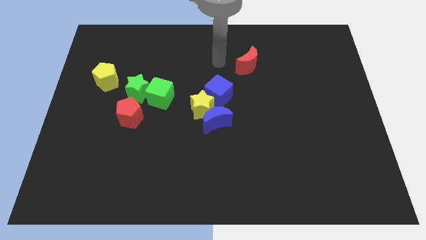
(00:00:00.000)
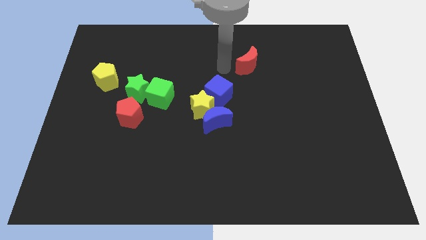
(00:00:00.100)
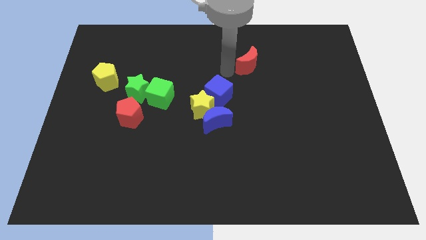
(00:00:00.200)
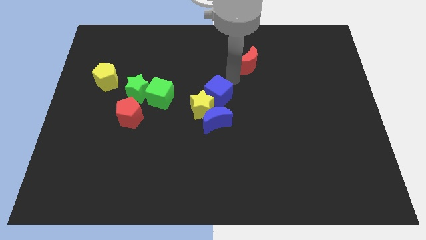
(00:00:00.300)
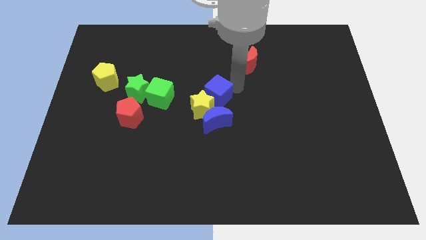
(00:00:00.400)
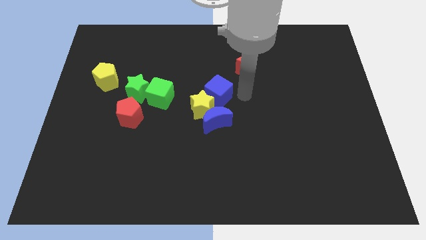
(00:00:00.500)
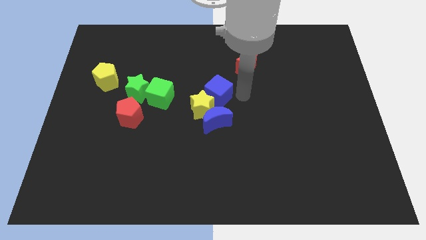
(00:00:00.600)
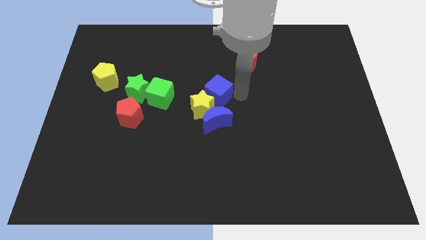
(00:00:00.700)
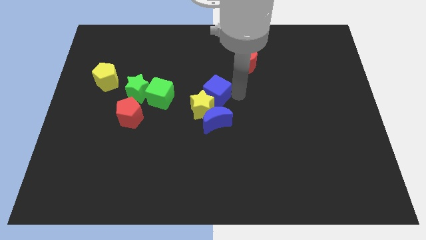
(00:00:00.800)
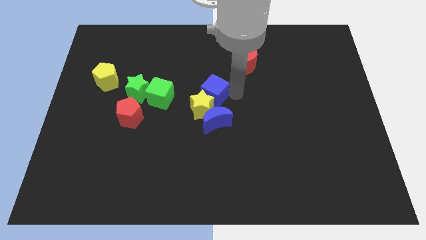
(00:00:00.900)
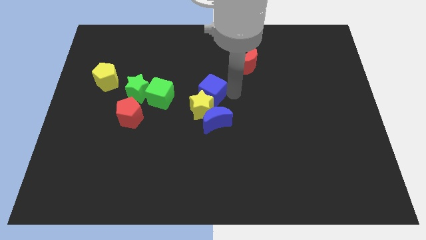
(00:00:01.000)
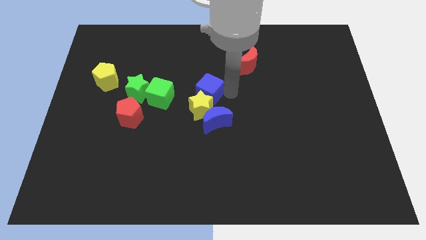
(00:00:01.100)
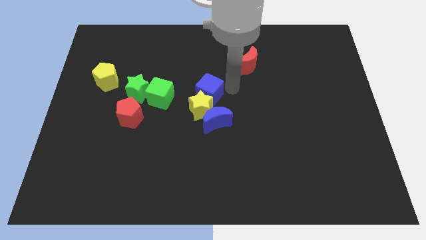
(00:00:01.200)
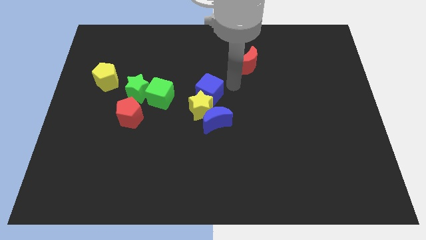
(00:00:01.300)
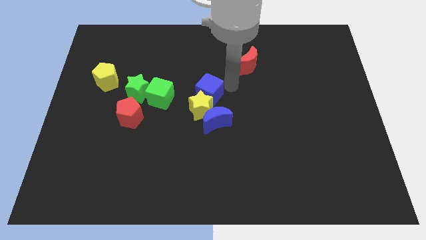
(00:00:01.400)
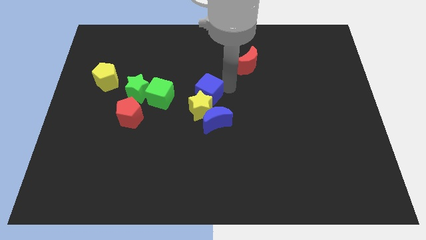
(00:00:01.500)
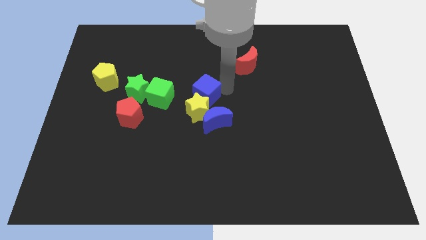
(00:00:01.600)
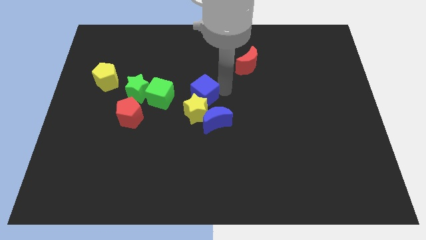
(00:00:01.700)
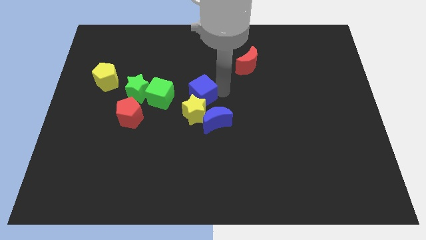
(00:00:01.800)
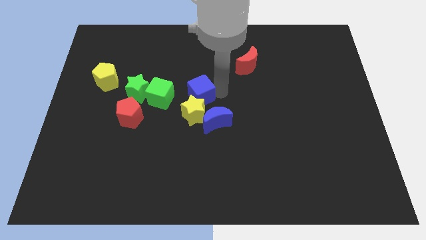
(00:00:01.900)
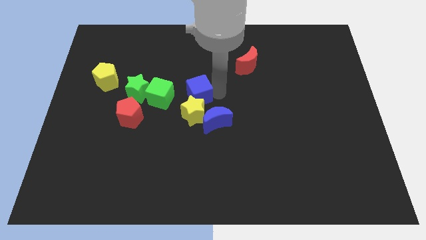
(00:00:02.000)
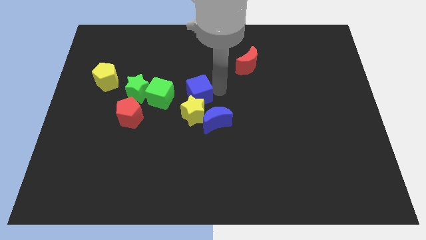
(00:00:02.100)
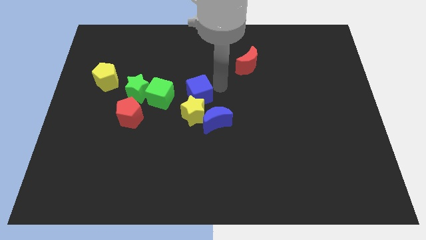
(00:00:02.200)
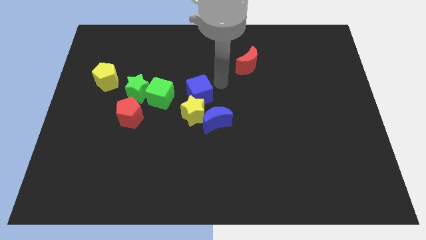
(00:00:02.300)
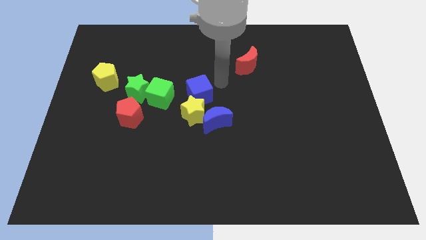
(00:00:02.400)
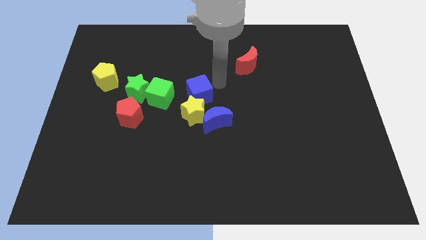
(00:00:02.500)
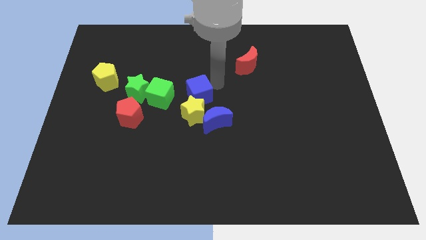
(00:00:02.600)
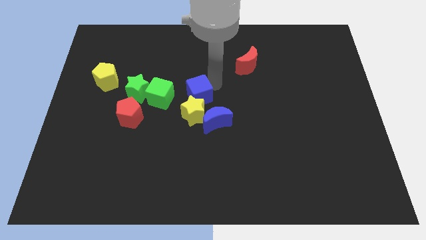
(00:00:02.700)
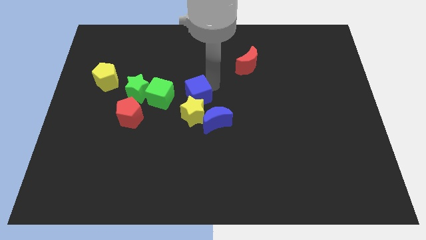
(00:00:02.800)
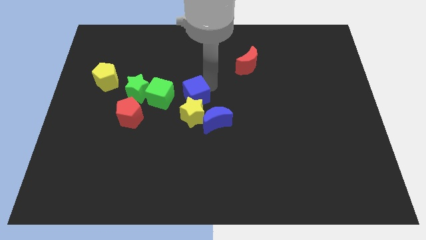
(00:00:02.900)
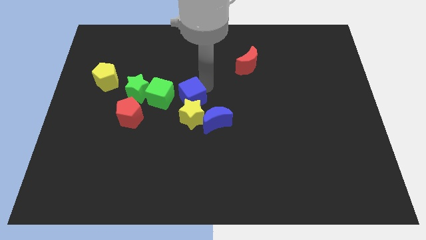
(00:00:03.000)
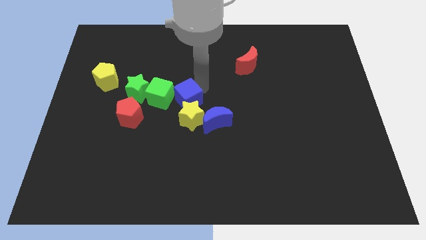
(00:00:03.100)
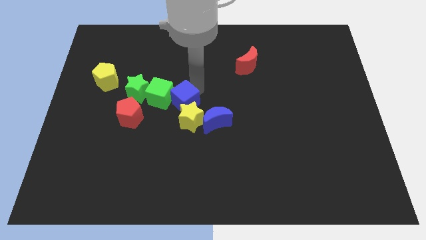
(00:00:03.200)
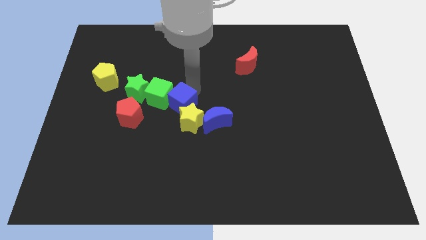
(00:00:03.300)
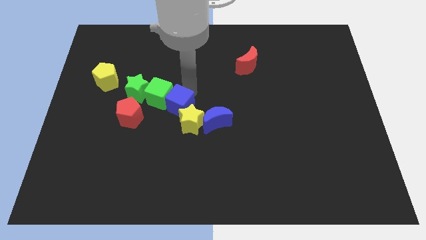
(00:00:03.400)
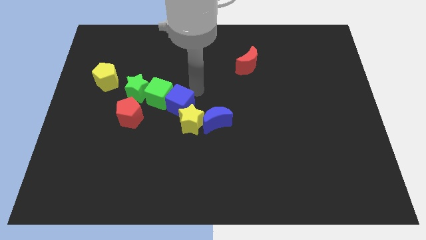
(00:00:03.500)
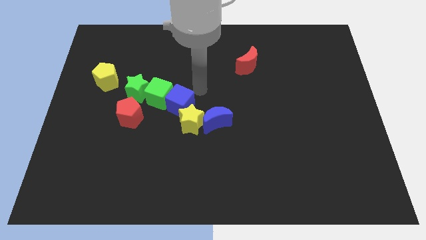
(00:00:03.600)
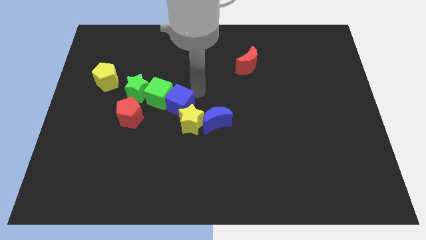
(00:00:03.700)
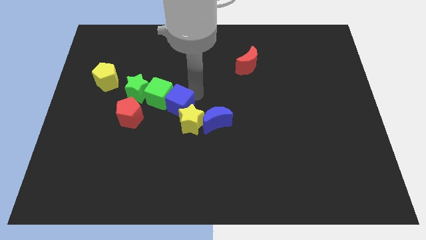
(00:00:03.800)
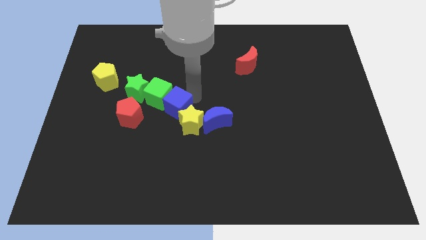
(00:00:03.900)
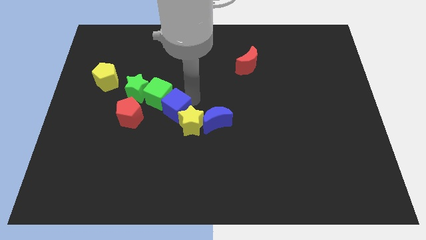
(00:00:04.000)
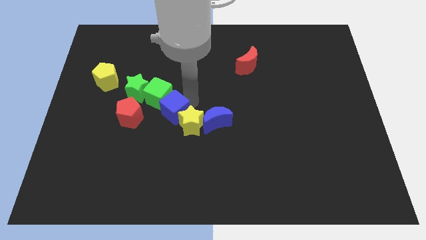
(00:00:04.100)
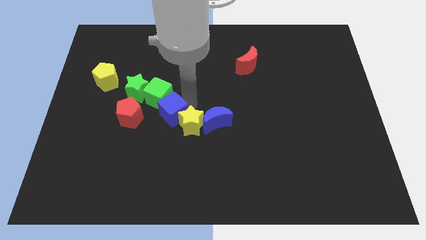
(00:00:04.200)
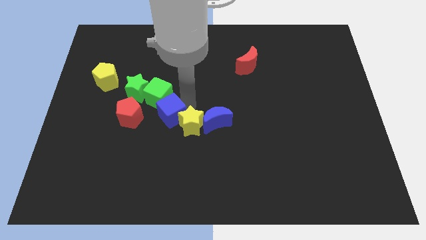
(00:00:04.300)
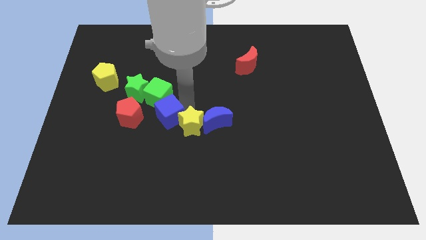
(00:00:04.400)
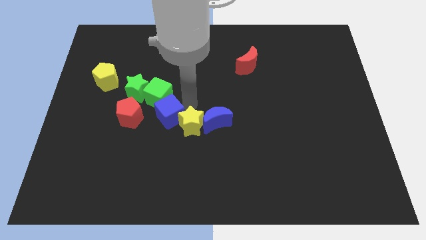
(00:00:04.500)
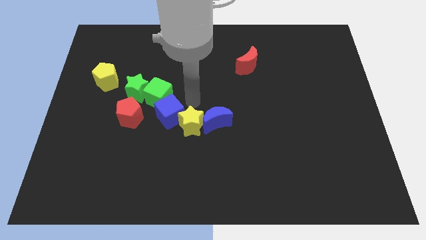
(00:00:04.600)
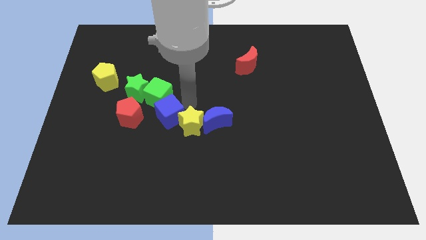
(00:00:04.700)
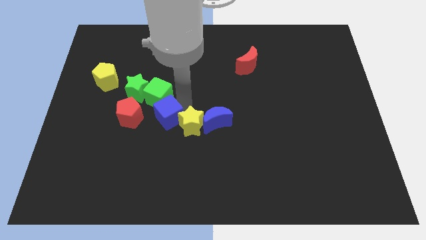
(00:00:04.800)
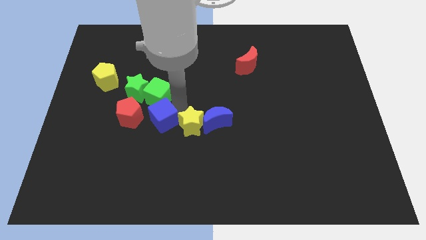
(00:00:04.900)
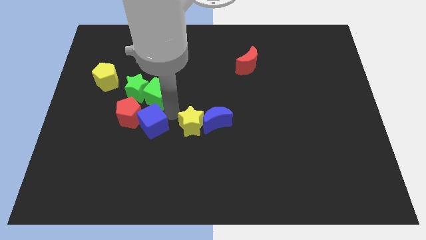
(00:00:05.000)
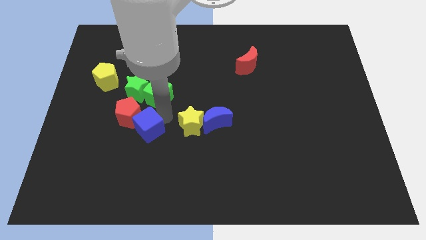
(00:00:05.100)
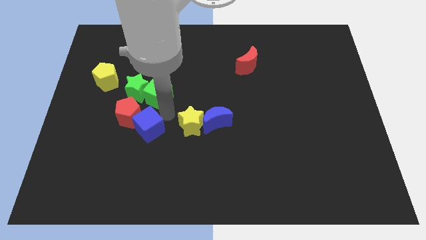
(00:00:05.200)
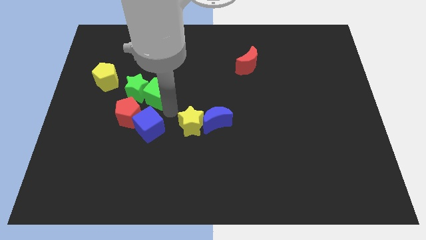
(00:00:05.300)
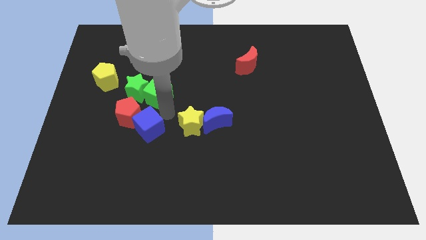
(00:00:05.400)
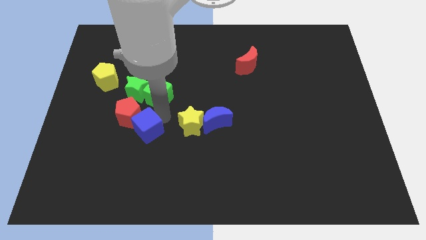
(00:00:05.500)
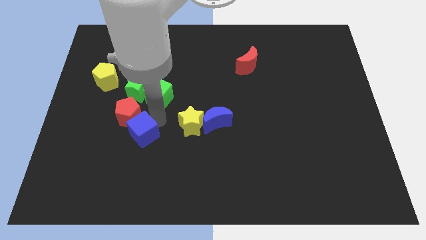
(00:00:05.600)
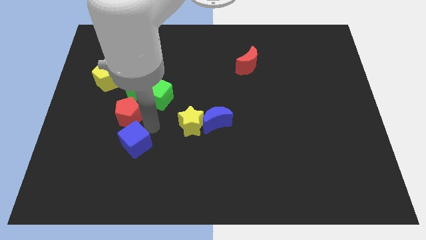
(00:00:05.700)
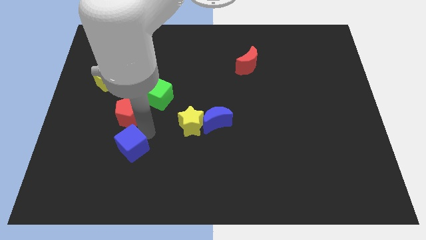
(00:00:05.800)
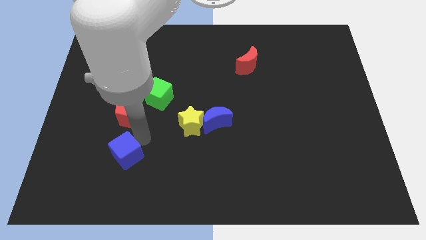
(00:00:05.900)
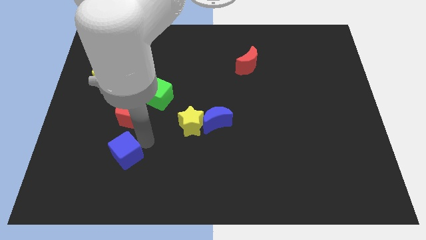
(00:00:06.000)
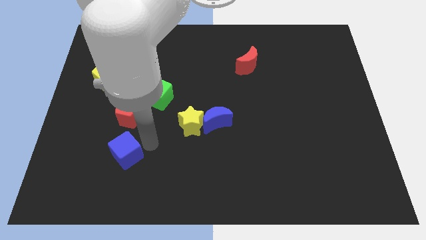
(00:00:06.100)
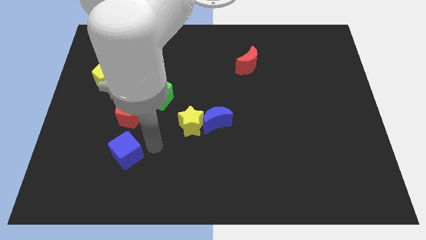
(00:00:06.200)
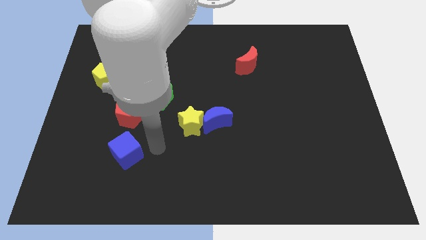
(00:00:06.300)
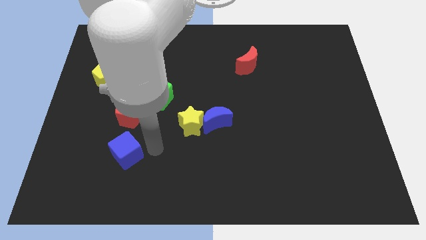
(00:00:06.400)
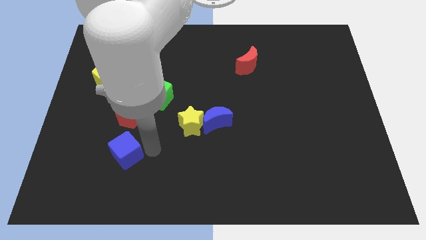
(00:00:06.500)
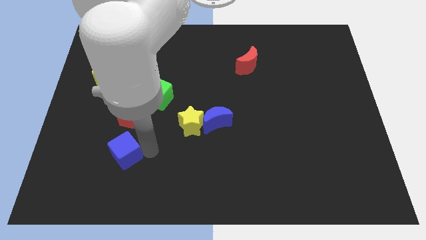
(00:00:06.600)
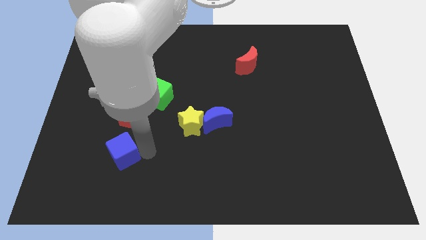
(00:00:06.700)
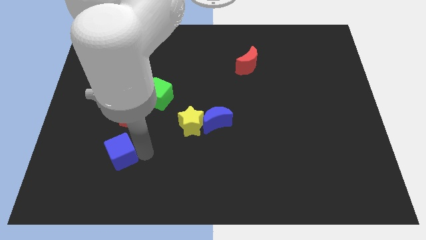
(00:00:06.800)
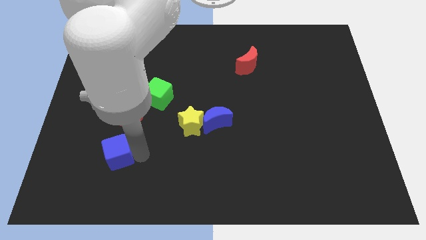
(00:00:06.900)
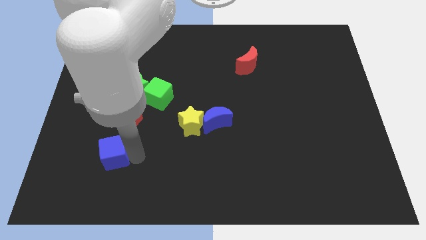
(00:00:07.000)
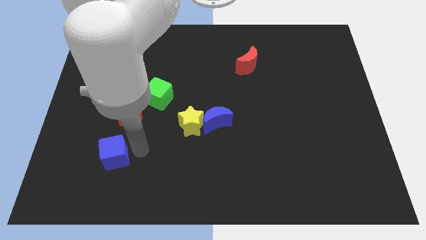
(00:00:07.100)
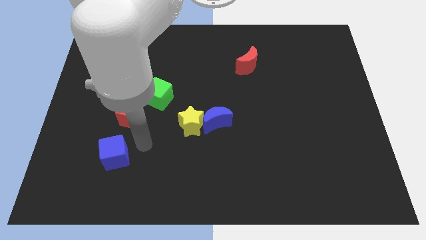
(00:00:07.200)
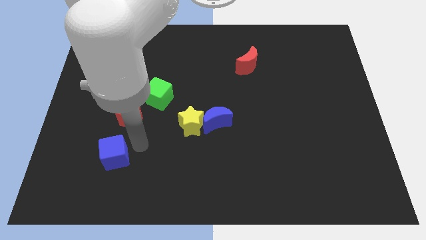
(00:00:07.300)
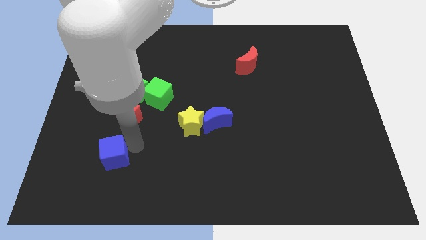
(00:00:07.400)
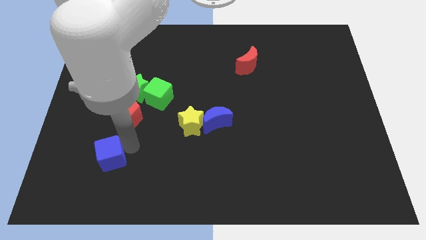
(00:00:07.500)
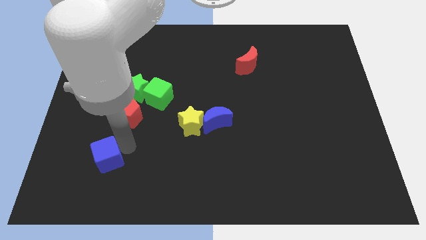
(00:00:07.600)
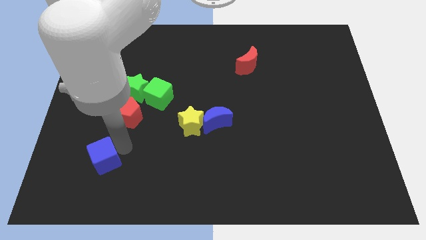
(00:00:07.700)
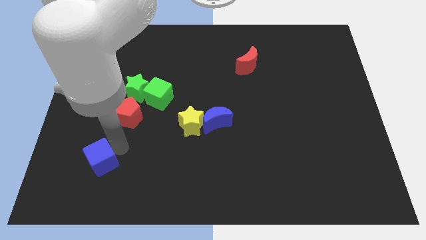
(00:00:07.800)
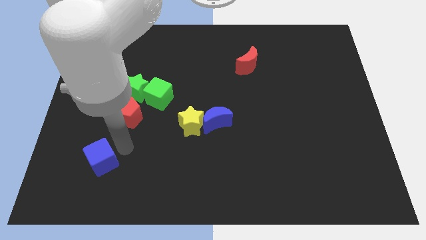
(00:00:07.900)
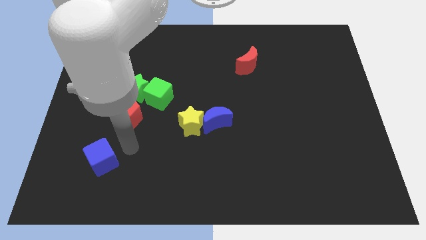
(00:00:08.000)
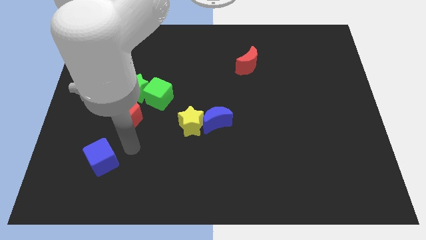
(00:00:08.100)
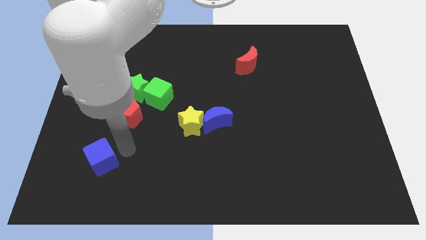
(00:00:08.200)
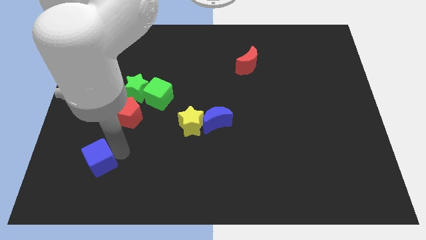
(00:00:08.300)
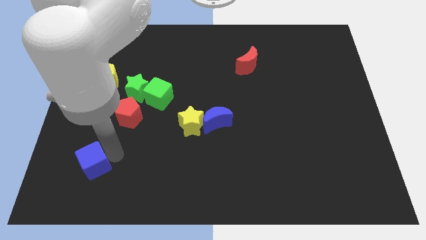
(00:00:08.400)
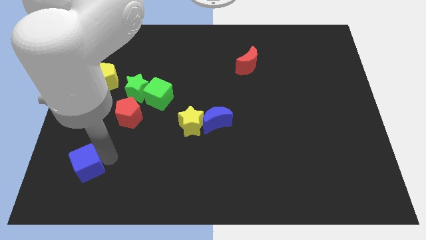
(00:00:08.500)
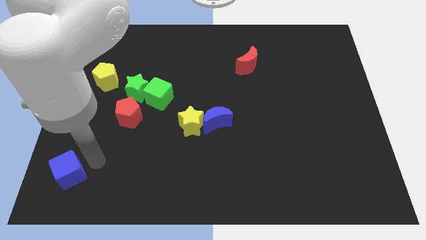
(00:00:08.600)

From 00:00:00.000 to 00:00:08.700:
push the blue cube to the lower left corner
